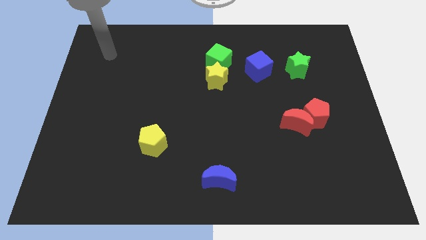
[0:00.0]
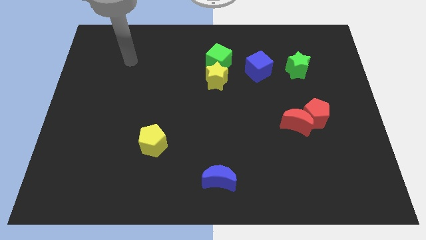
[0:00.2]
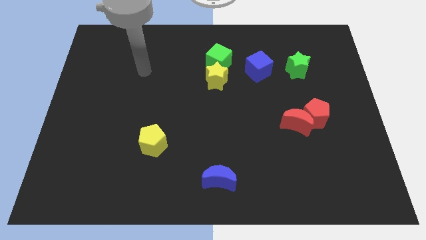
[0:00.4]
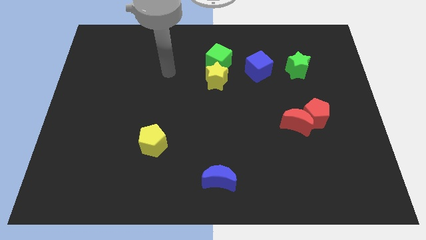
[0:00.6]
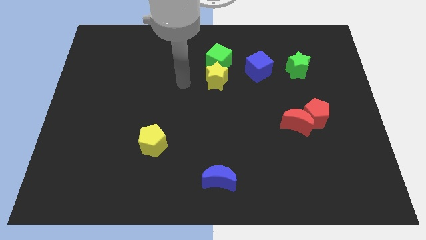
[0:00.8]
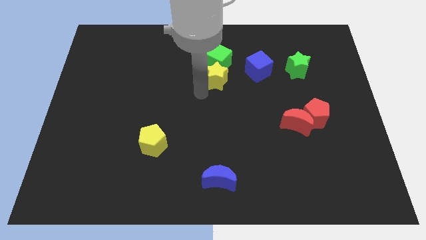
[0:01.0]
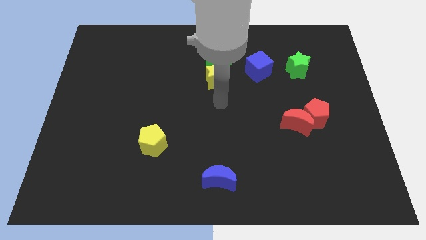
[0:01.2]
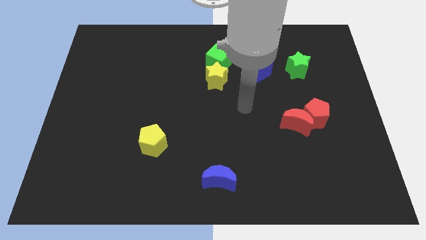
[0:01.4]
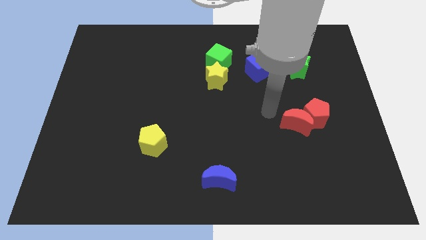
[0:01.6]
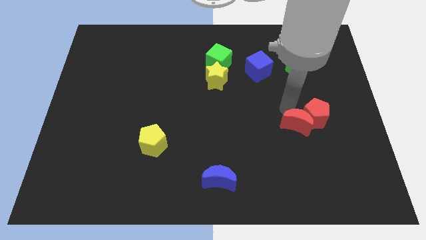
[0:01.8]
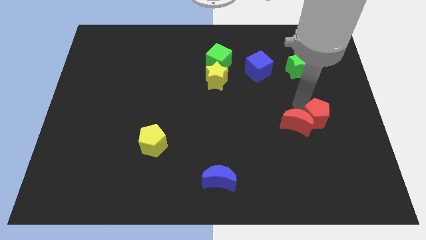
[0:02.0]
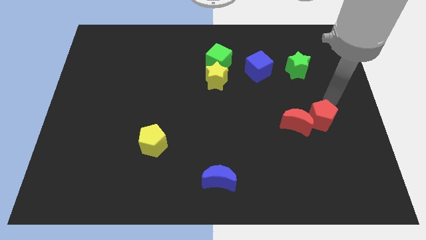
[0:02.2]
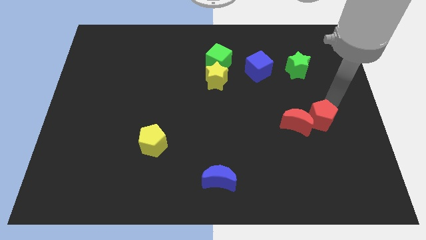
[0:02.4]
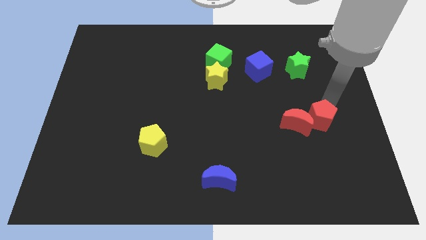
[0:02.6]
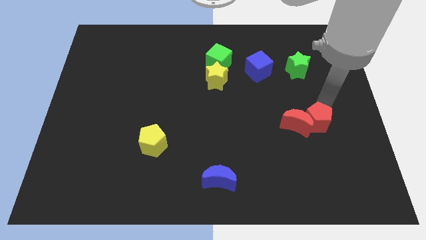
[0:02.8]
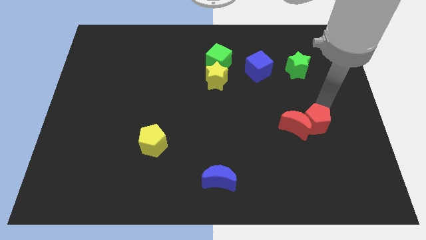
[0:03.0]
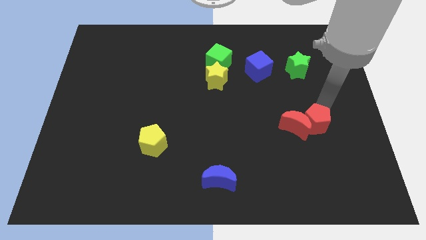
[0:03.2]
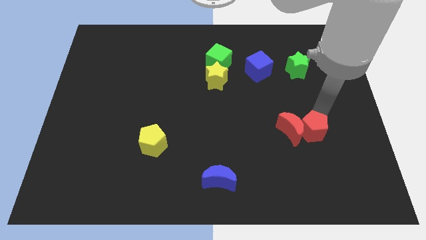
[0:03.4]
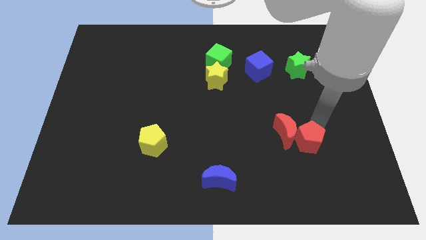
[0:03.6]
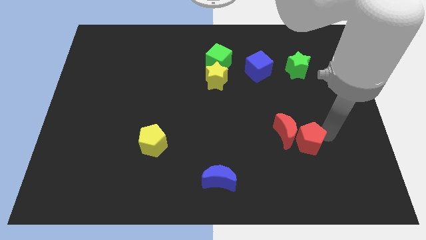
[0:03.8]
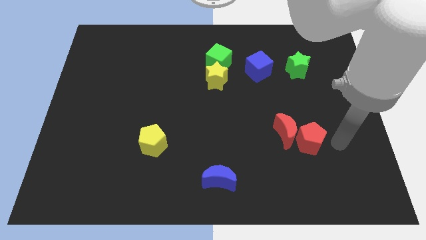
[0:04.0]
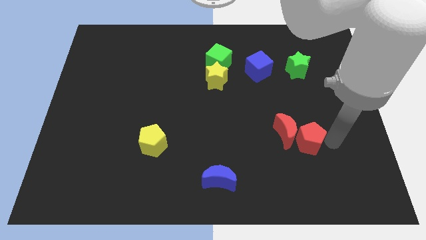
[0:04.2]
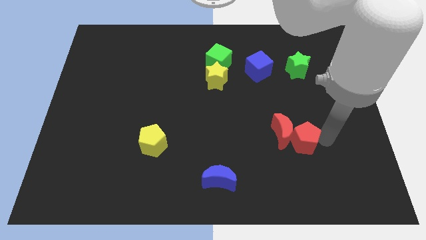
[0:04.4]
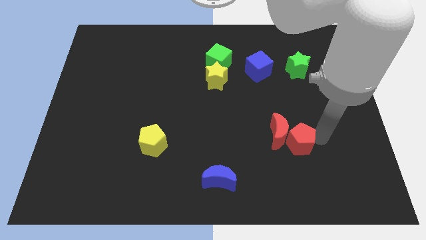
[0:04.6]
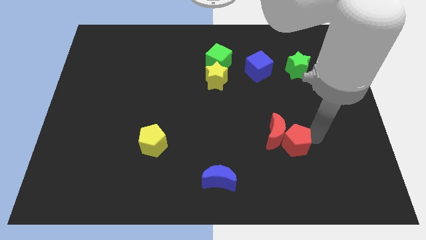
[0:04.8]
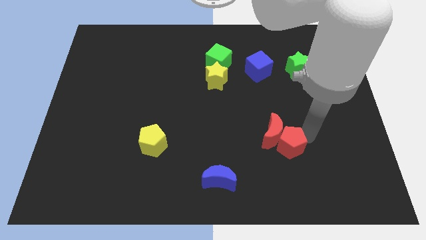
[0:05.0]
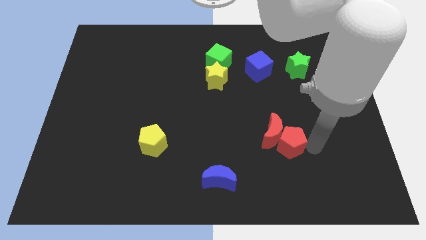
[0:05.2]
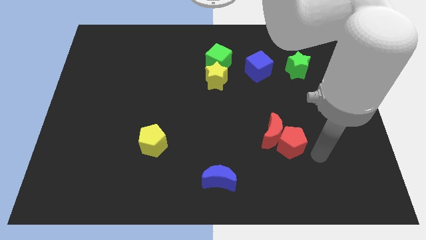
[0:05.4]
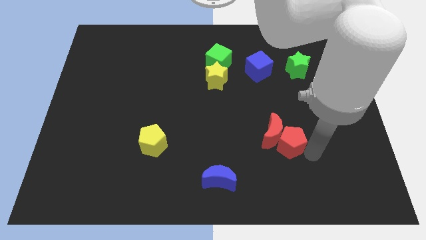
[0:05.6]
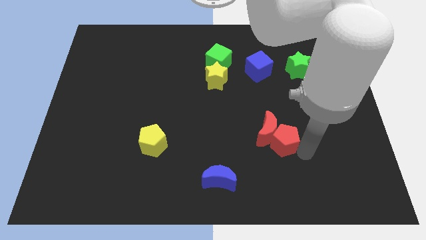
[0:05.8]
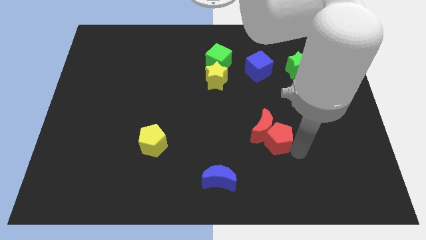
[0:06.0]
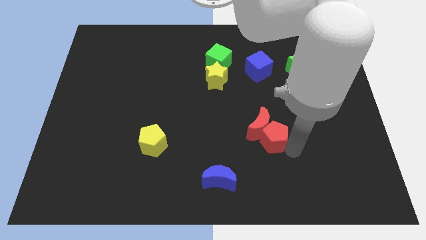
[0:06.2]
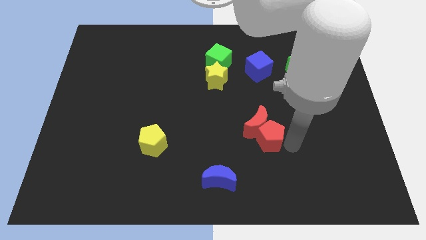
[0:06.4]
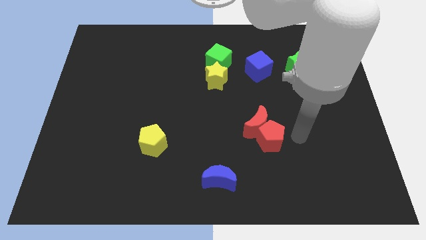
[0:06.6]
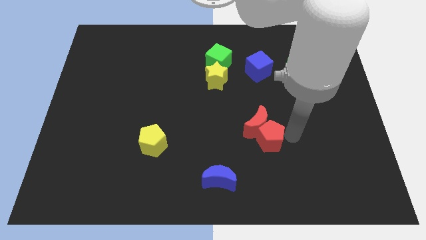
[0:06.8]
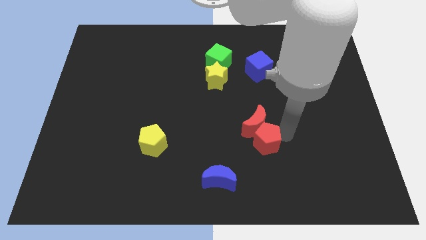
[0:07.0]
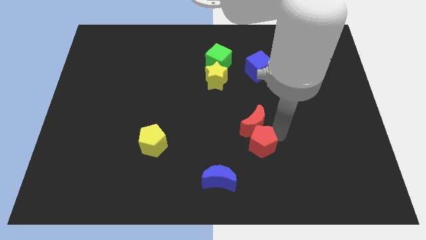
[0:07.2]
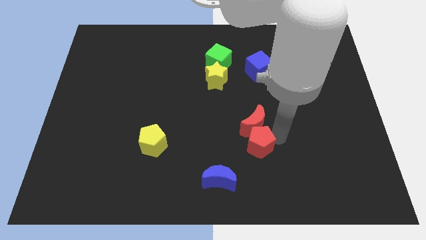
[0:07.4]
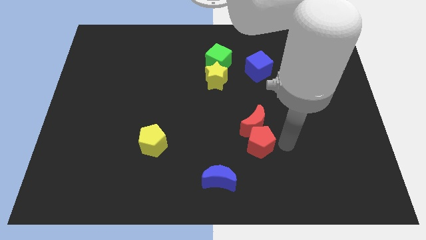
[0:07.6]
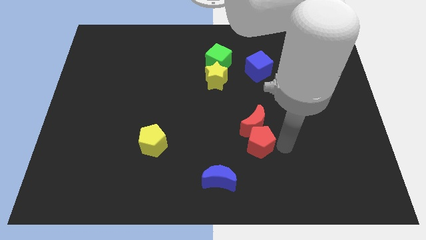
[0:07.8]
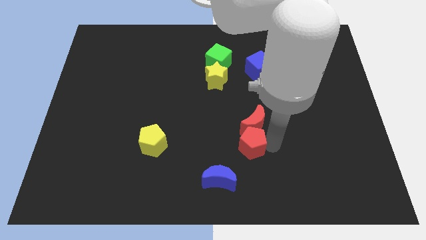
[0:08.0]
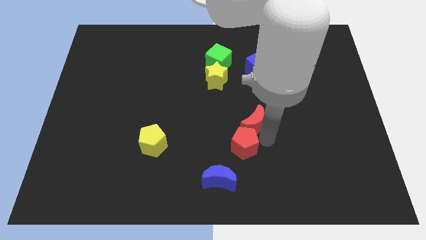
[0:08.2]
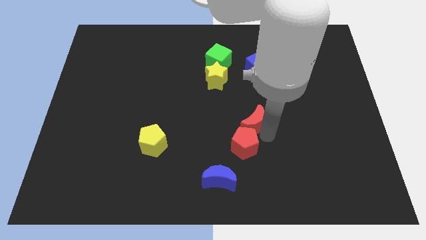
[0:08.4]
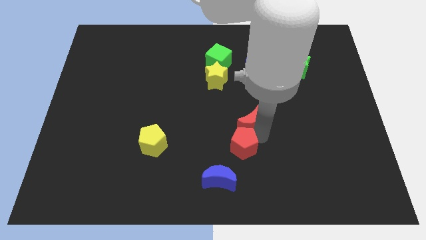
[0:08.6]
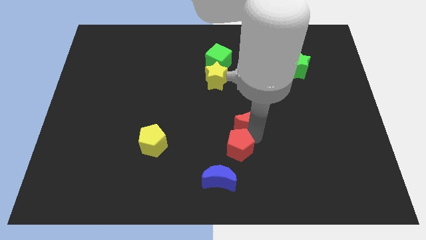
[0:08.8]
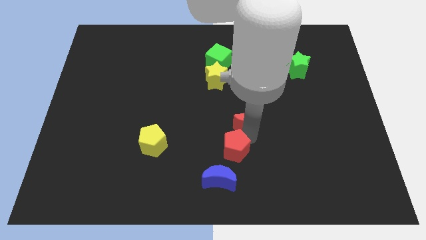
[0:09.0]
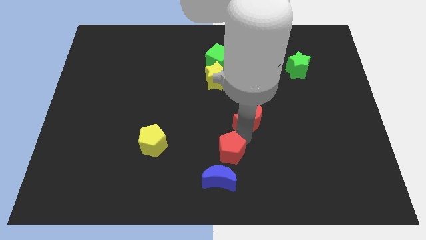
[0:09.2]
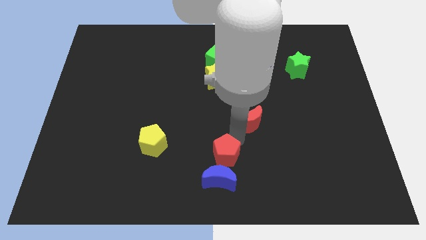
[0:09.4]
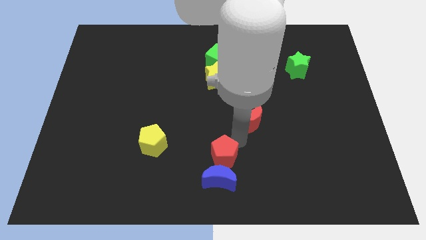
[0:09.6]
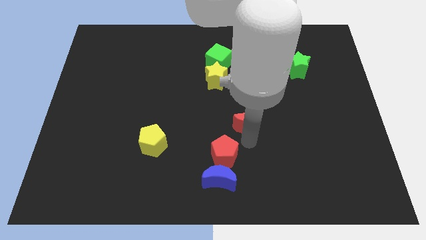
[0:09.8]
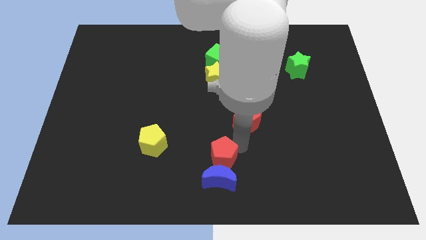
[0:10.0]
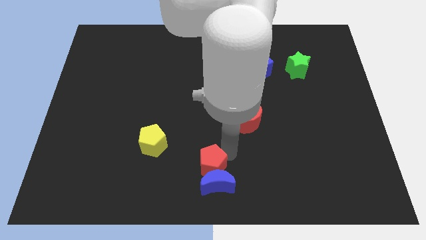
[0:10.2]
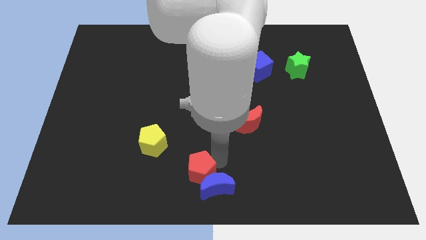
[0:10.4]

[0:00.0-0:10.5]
push the red pentagon to the left side of the blue moon

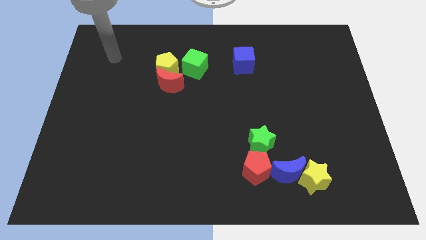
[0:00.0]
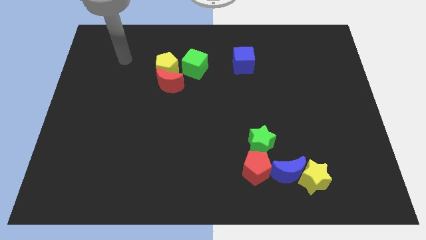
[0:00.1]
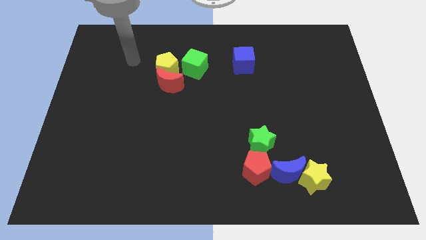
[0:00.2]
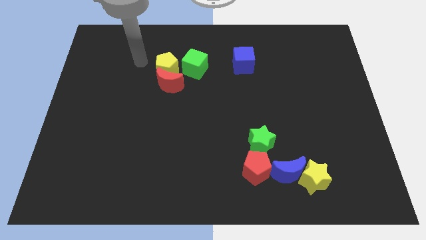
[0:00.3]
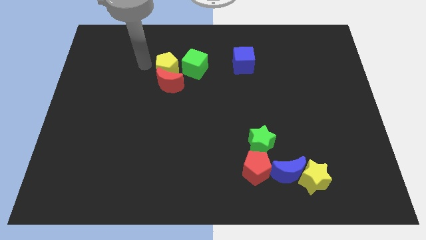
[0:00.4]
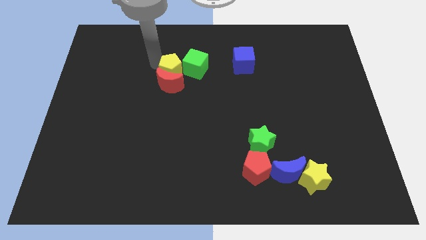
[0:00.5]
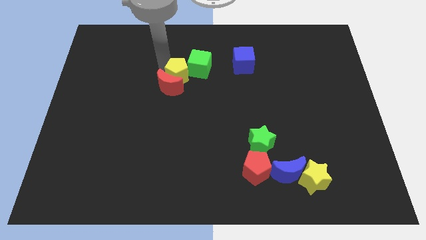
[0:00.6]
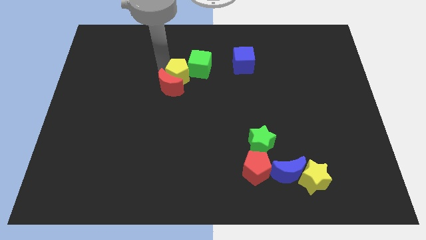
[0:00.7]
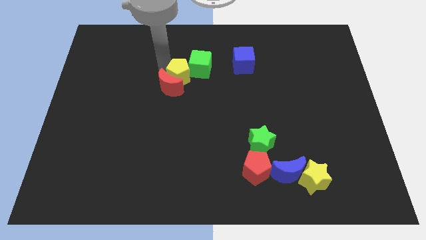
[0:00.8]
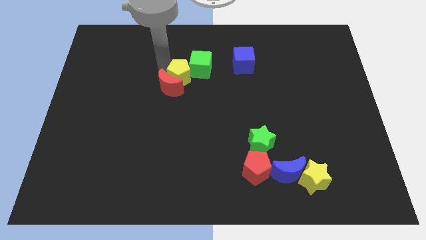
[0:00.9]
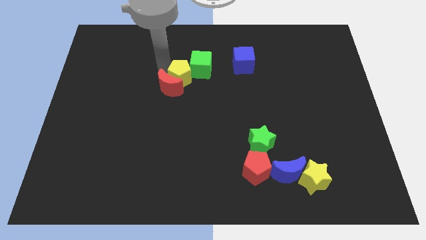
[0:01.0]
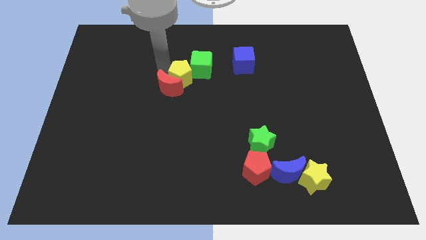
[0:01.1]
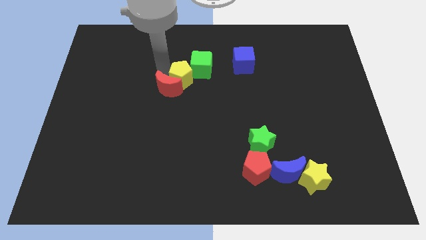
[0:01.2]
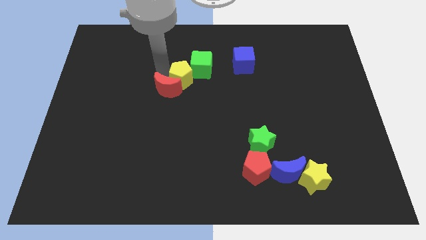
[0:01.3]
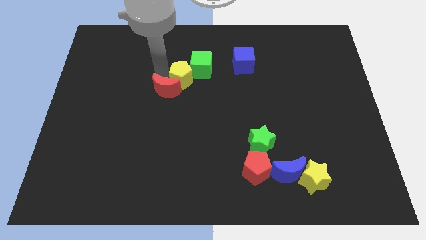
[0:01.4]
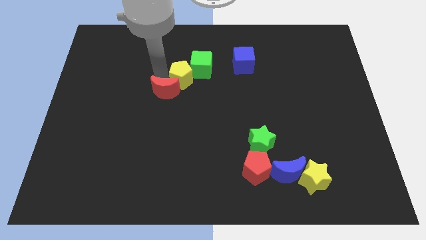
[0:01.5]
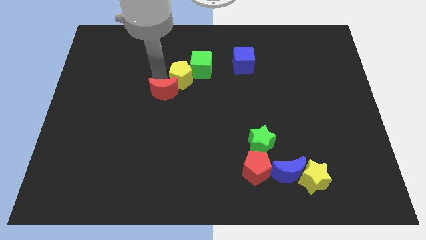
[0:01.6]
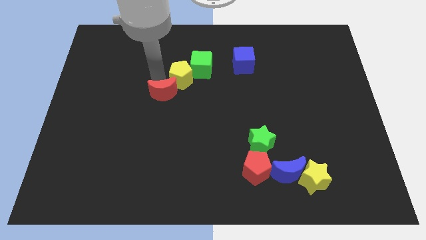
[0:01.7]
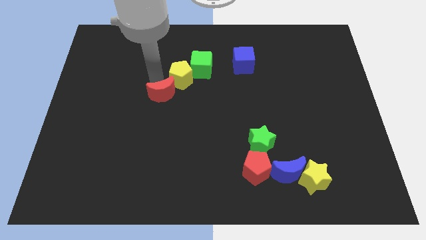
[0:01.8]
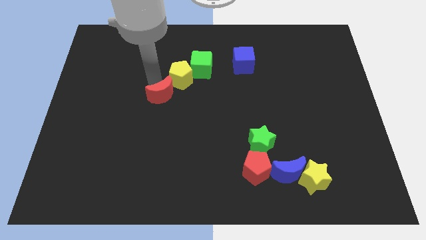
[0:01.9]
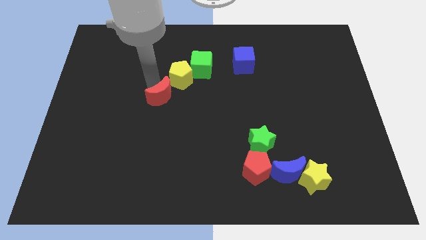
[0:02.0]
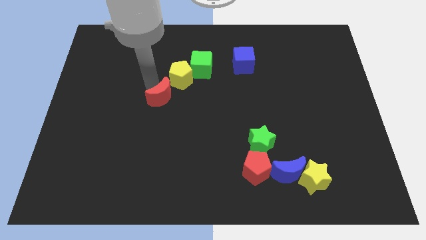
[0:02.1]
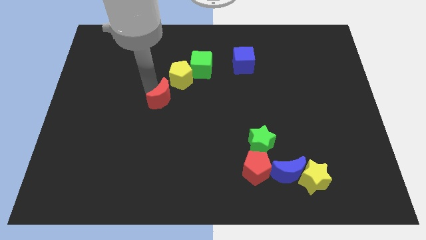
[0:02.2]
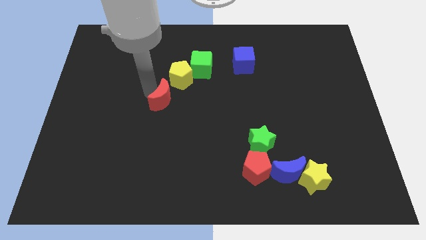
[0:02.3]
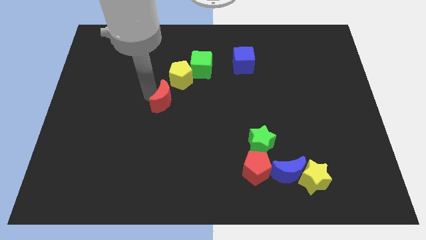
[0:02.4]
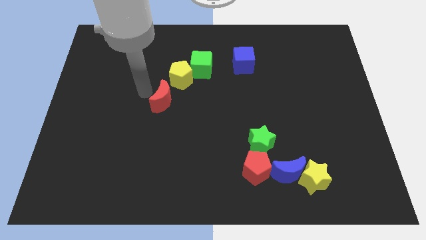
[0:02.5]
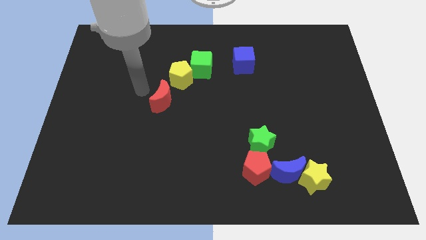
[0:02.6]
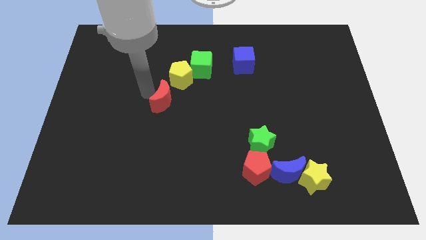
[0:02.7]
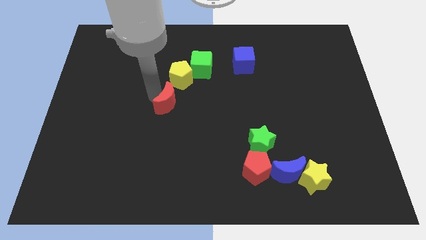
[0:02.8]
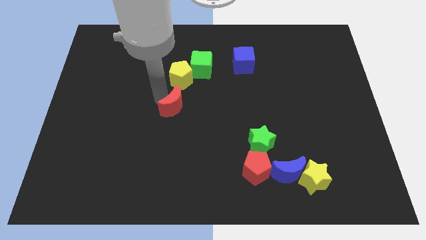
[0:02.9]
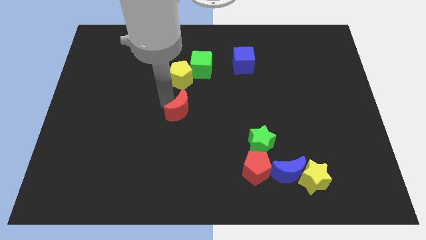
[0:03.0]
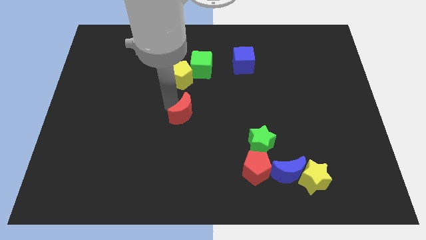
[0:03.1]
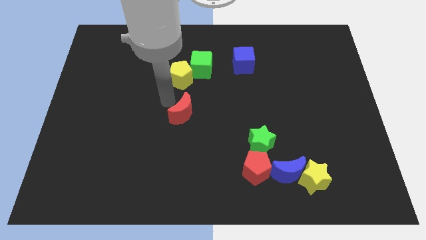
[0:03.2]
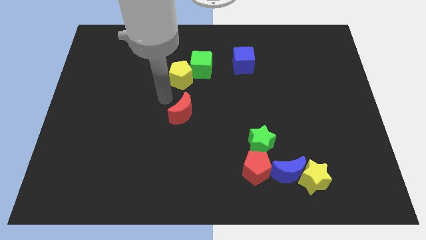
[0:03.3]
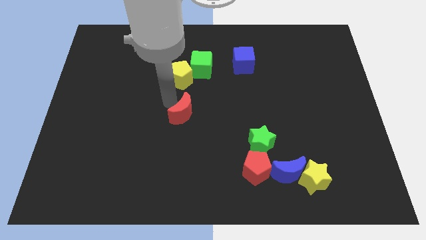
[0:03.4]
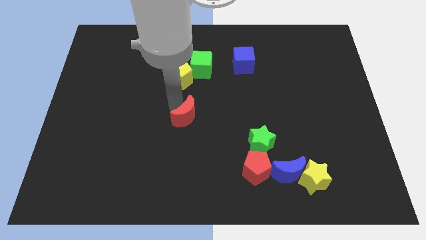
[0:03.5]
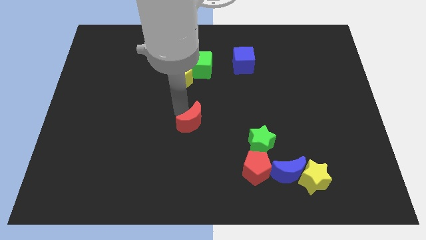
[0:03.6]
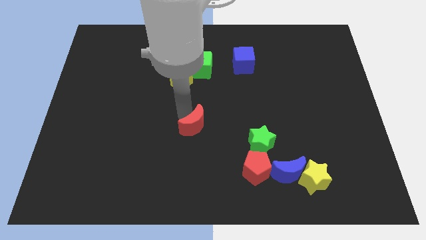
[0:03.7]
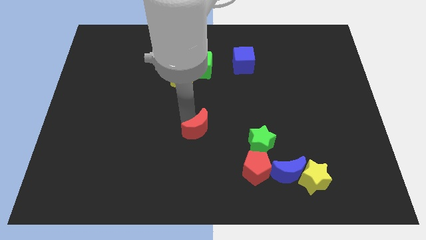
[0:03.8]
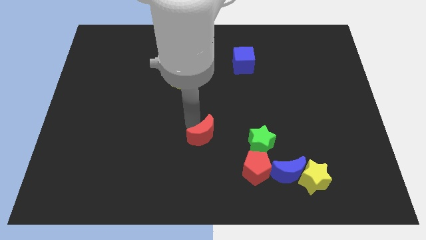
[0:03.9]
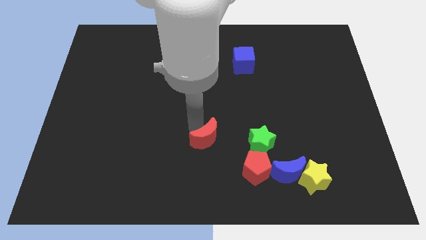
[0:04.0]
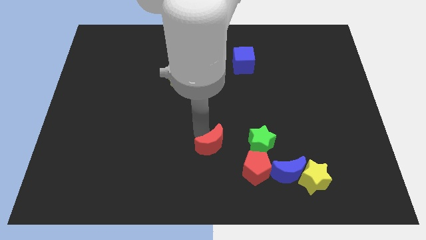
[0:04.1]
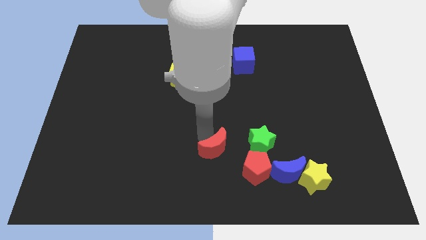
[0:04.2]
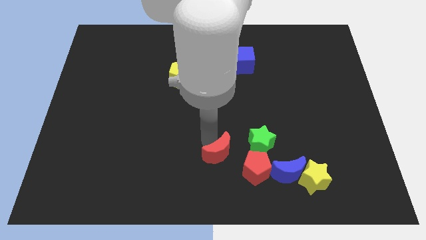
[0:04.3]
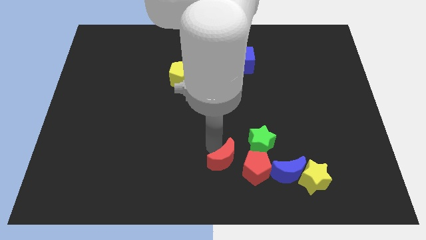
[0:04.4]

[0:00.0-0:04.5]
slide the red moon just left of the blue moon
